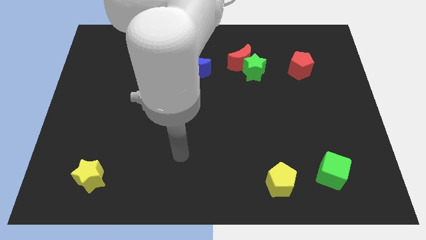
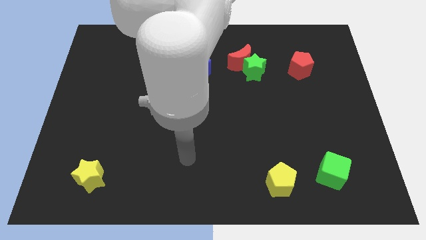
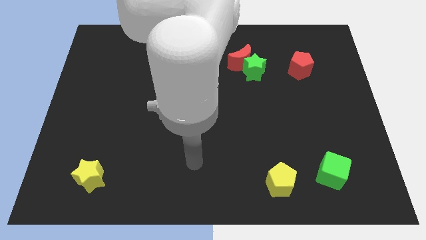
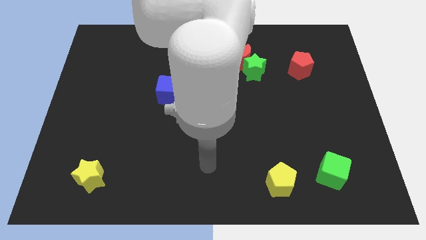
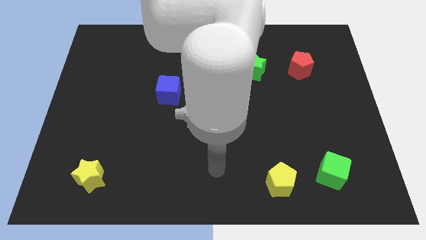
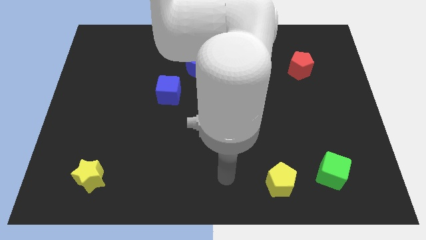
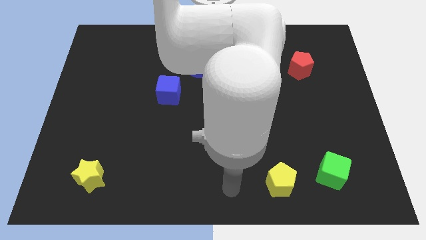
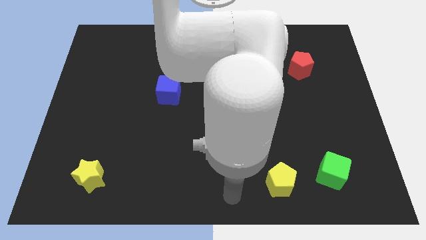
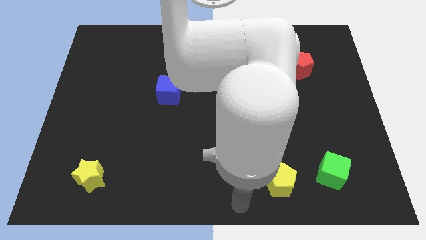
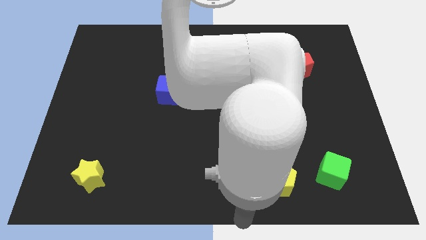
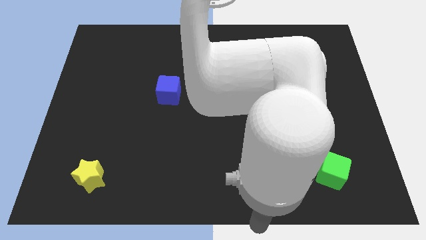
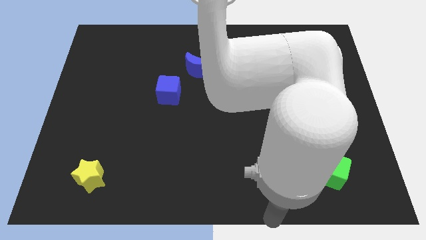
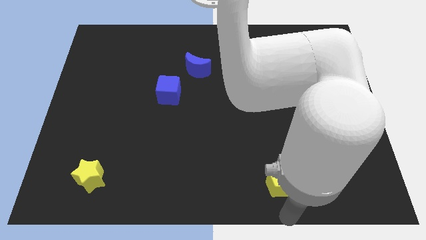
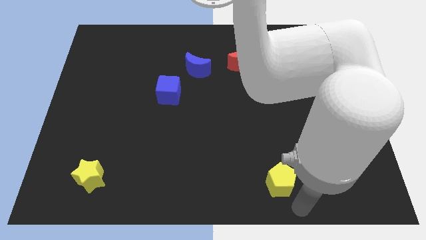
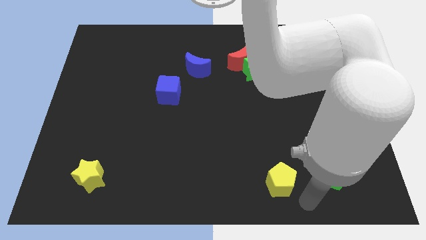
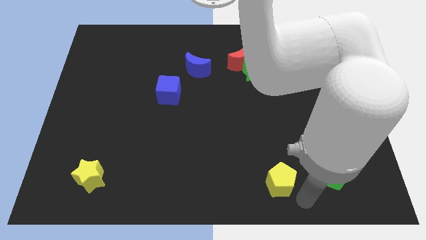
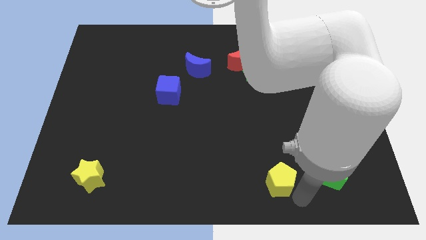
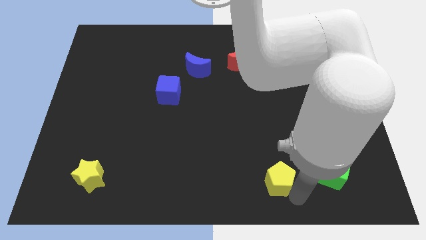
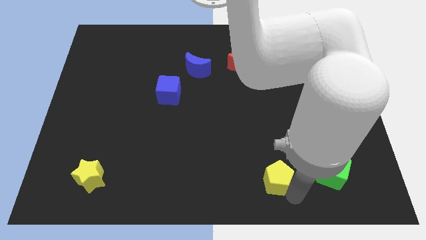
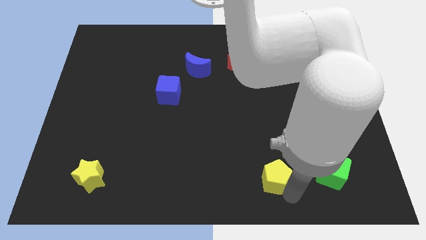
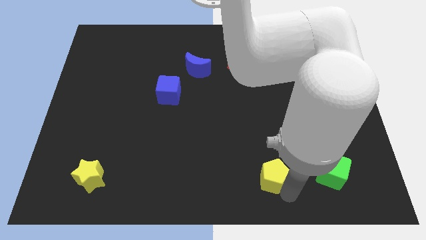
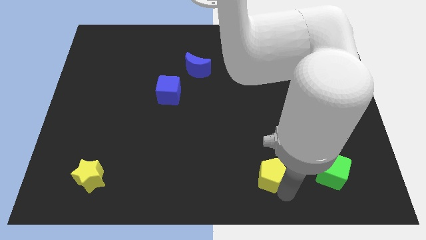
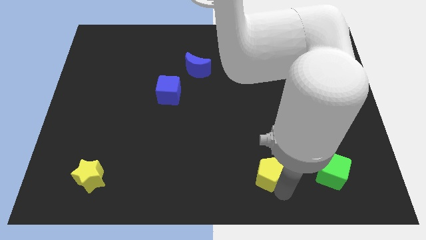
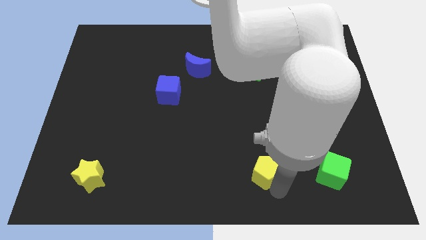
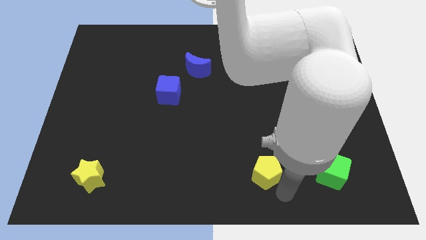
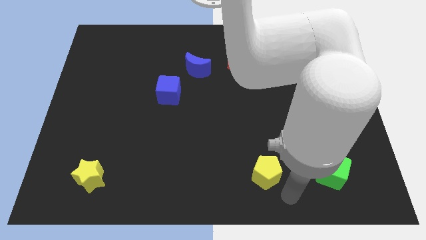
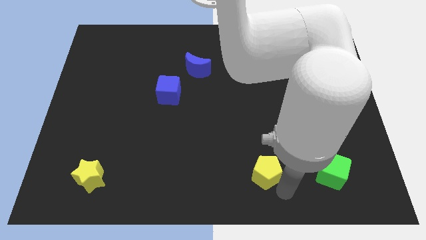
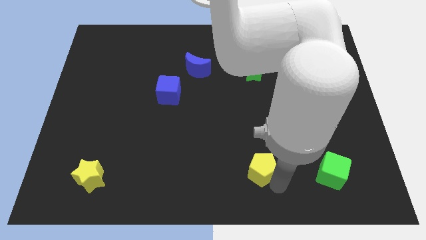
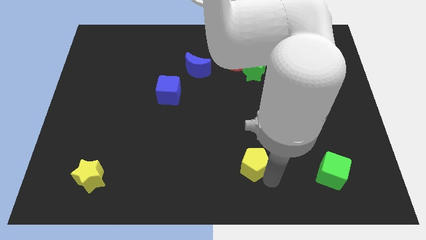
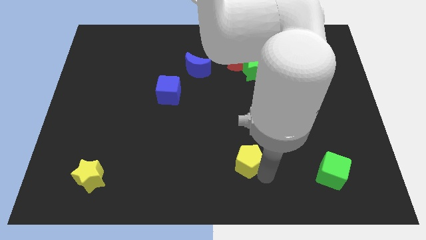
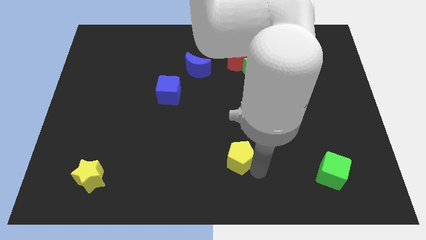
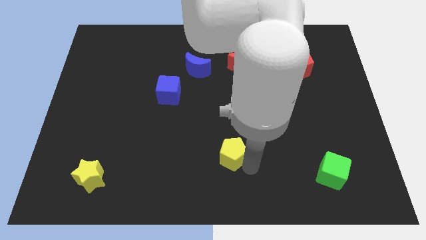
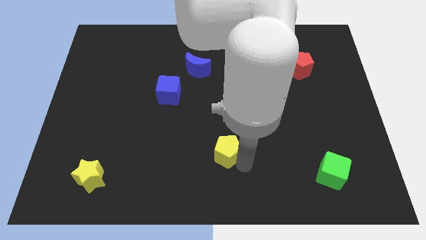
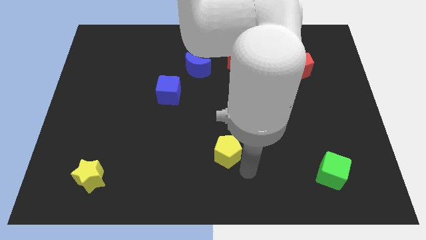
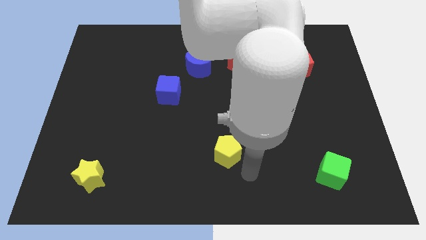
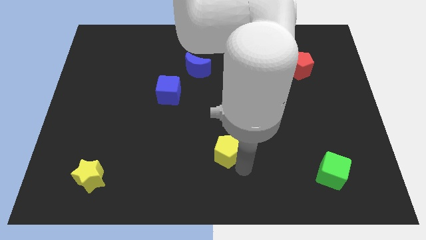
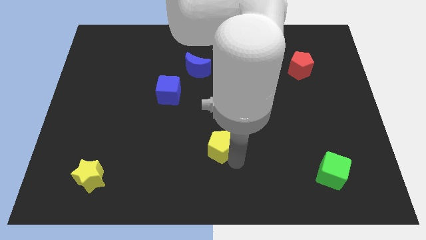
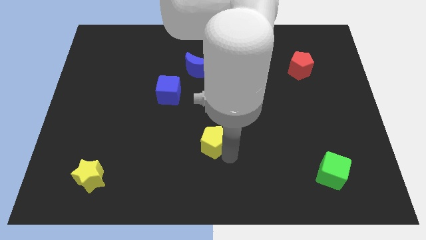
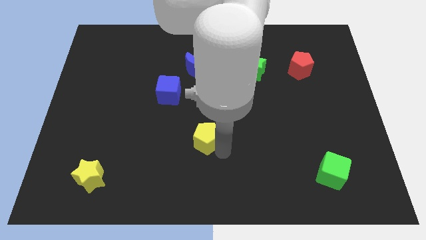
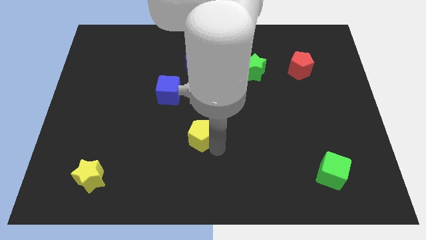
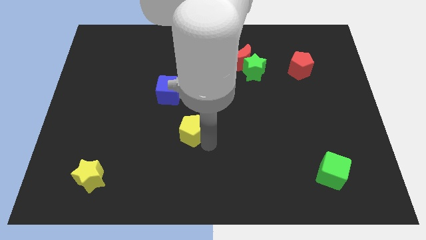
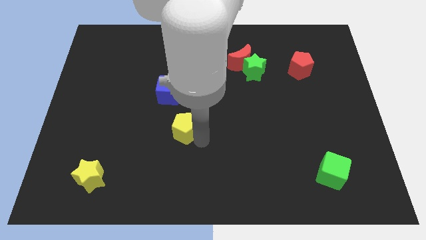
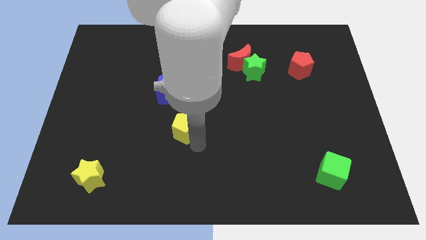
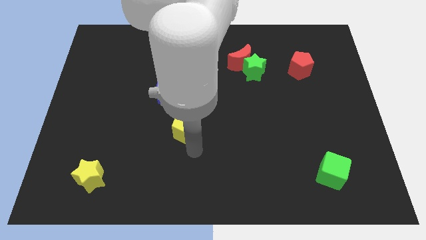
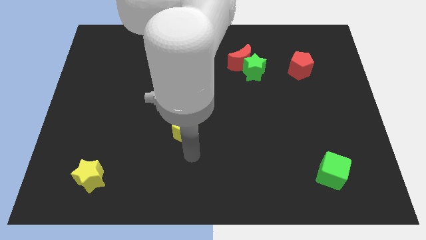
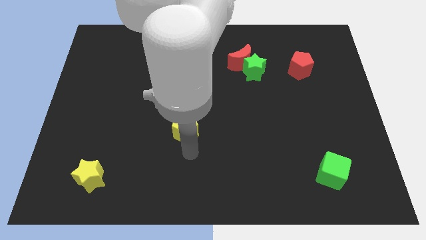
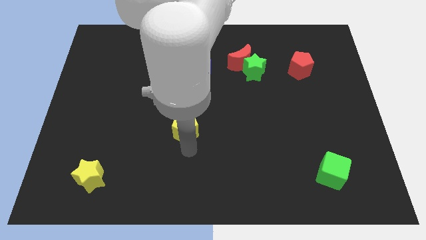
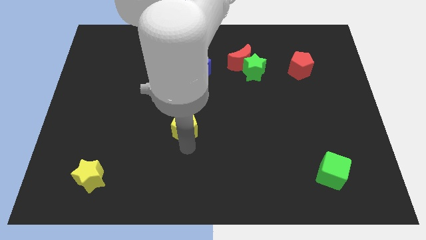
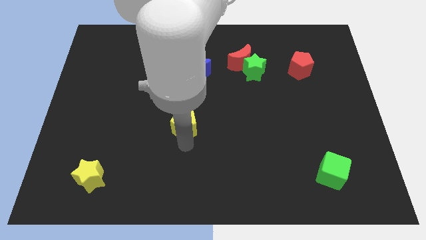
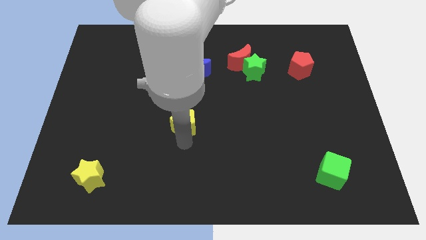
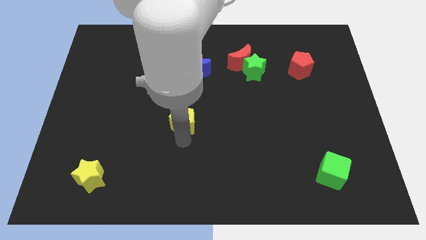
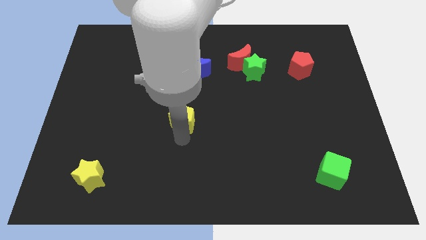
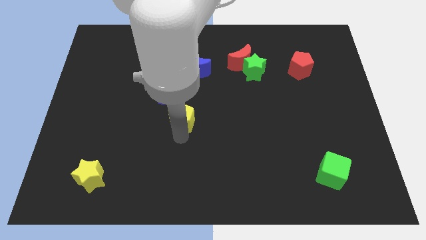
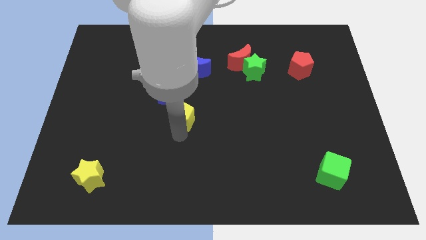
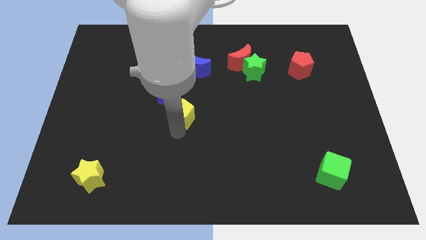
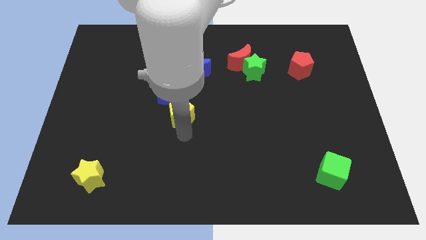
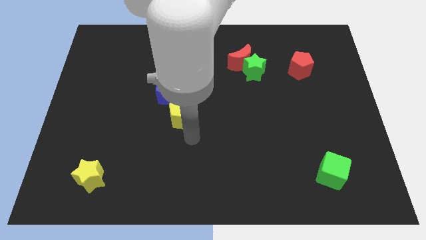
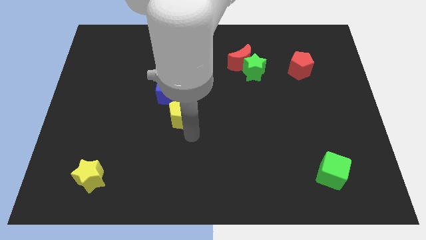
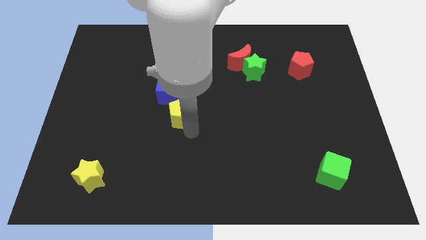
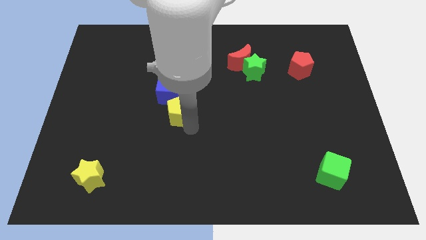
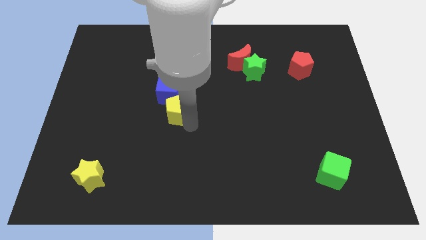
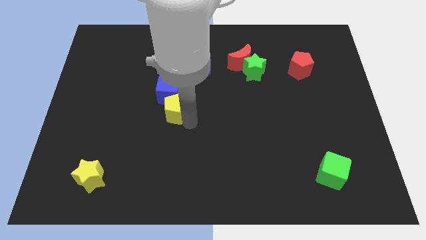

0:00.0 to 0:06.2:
move the yellow pentagon close to the blue cube
